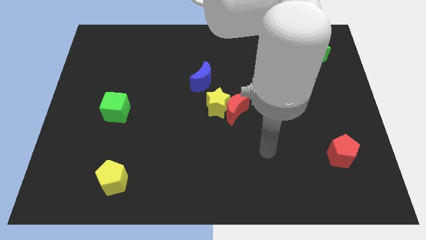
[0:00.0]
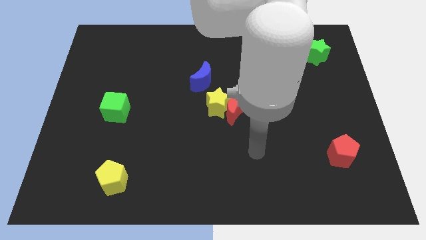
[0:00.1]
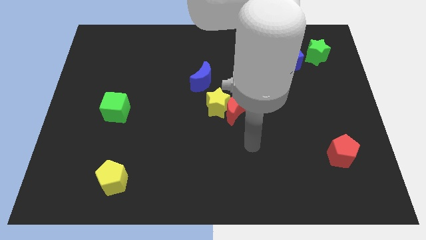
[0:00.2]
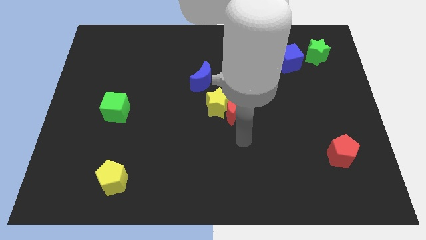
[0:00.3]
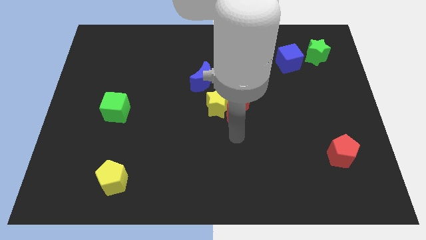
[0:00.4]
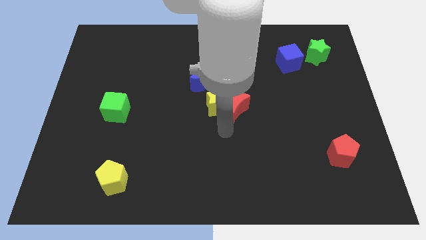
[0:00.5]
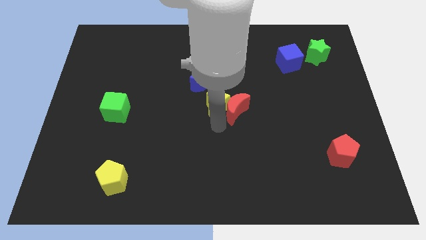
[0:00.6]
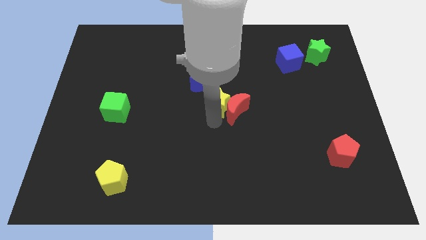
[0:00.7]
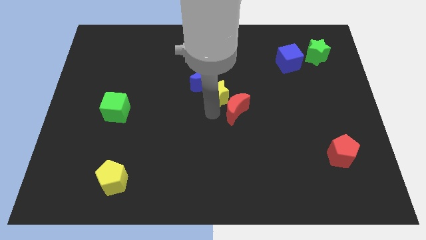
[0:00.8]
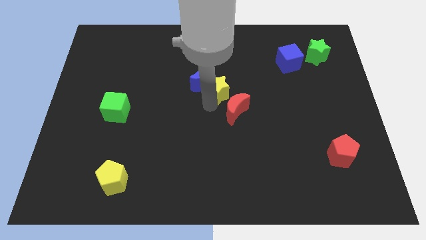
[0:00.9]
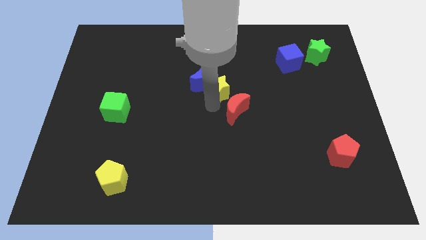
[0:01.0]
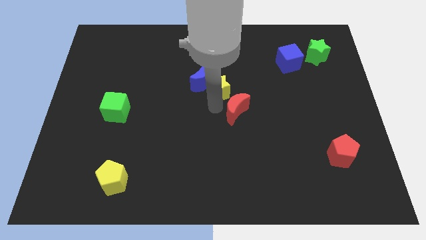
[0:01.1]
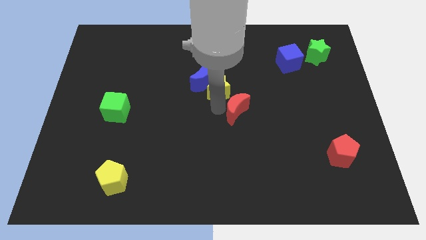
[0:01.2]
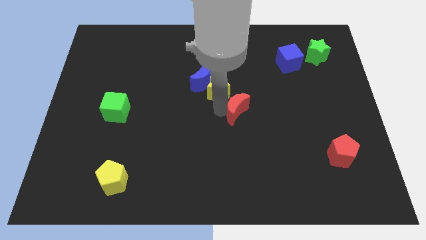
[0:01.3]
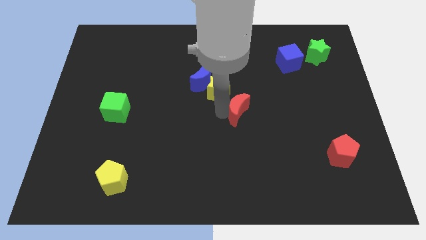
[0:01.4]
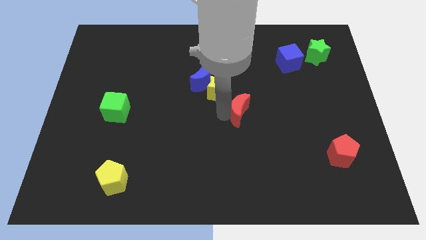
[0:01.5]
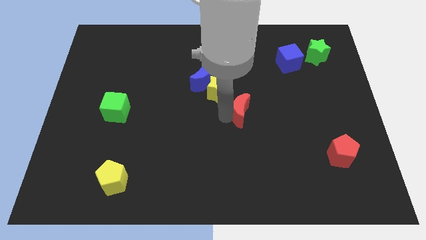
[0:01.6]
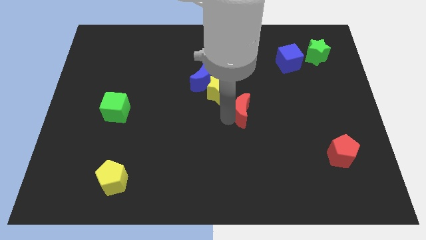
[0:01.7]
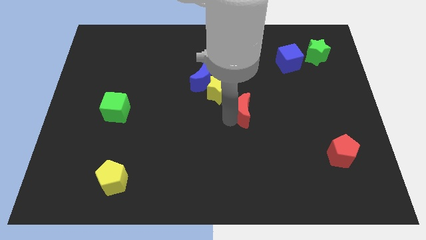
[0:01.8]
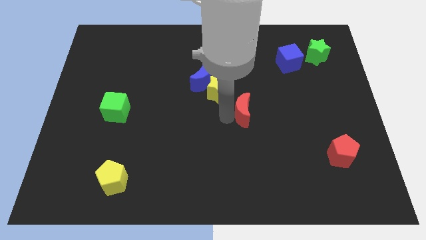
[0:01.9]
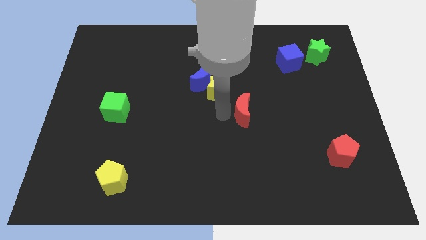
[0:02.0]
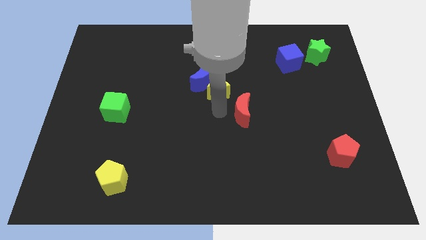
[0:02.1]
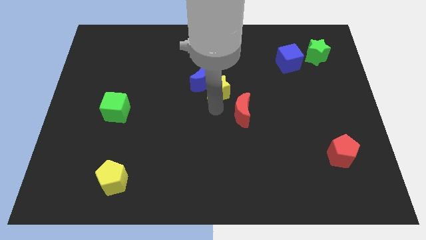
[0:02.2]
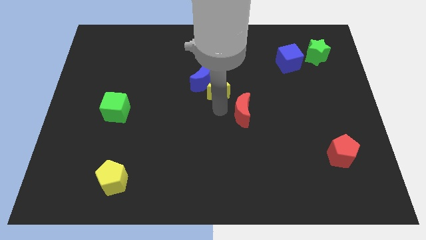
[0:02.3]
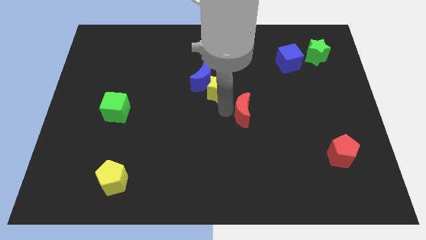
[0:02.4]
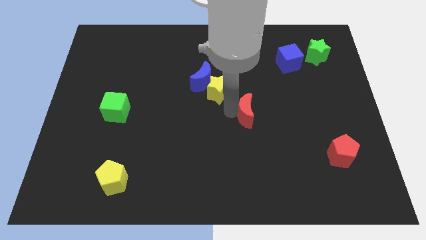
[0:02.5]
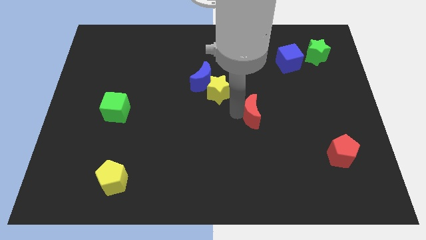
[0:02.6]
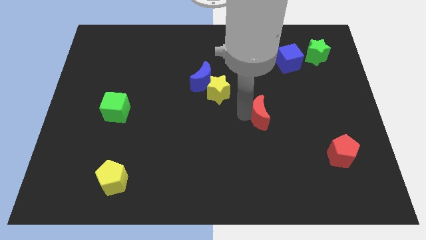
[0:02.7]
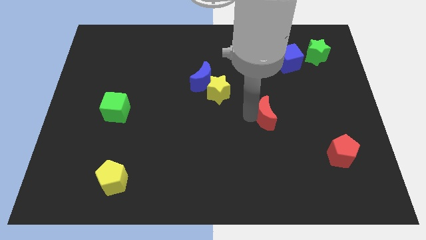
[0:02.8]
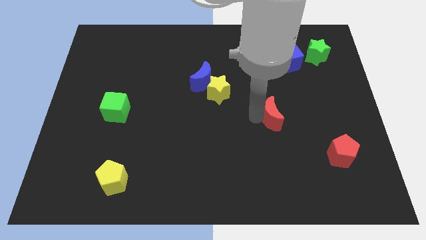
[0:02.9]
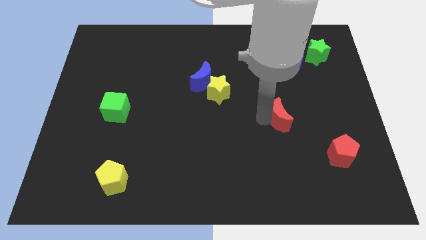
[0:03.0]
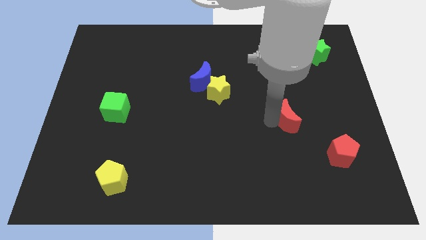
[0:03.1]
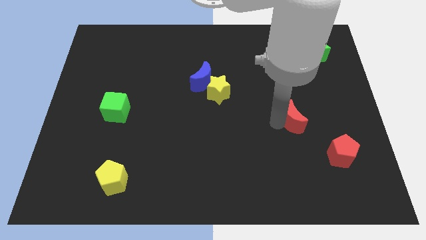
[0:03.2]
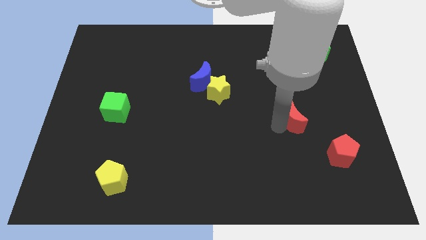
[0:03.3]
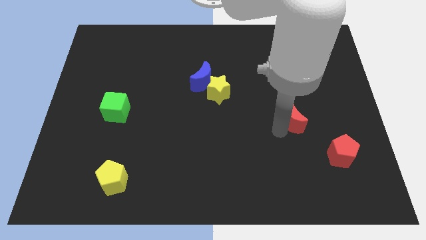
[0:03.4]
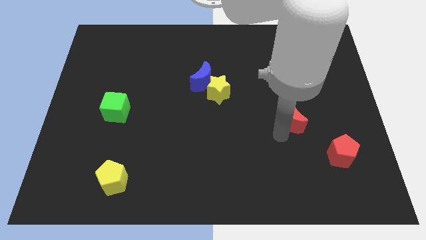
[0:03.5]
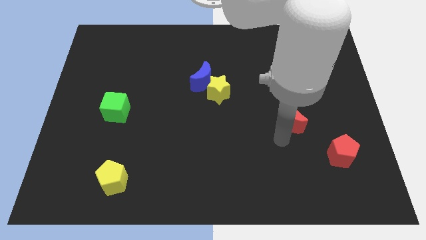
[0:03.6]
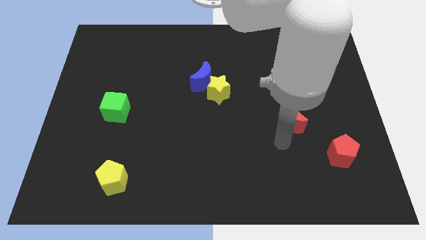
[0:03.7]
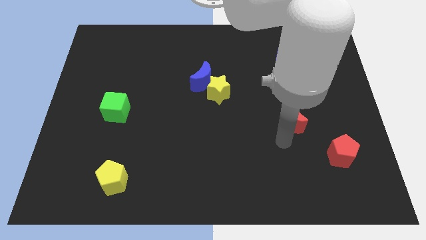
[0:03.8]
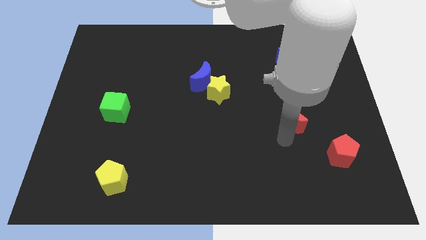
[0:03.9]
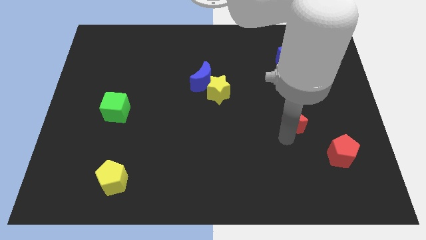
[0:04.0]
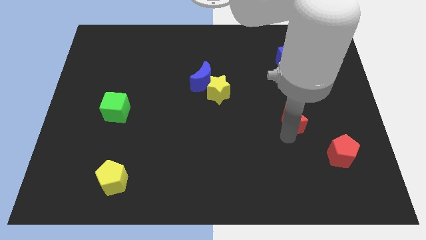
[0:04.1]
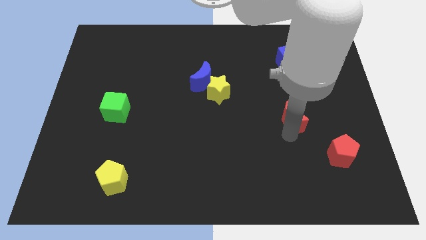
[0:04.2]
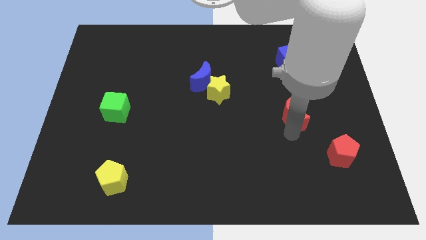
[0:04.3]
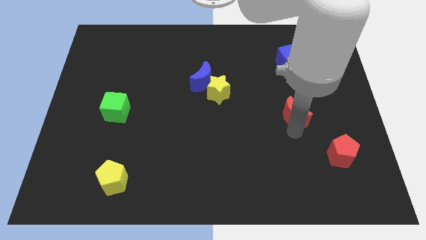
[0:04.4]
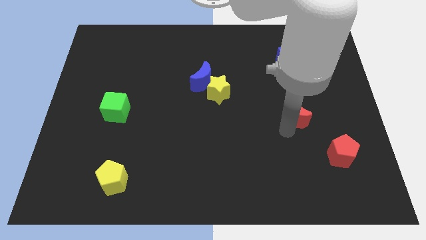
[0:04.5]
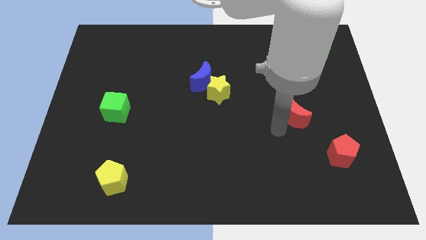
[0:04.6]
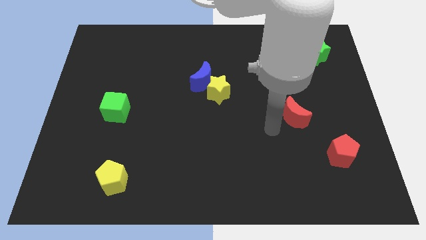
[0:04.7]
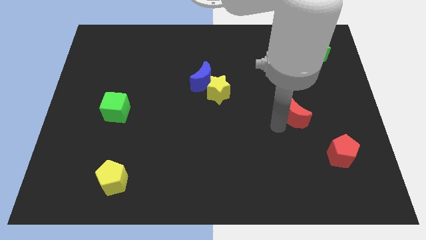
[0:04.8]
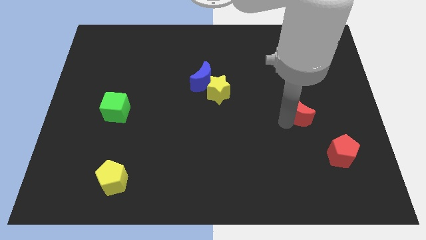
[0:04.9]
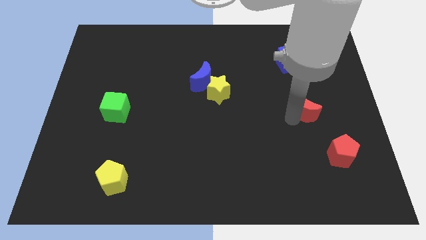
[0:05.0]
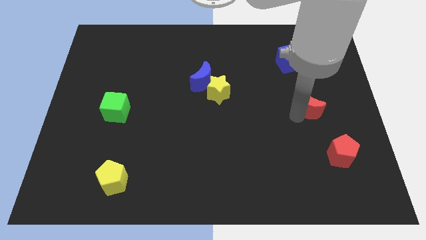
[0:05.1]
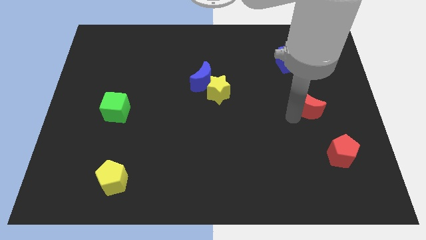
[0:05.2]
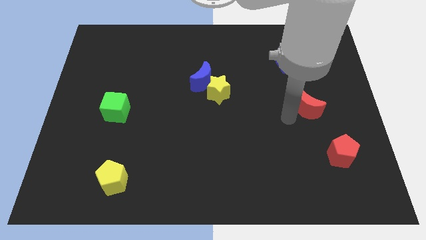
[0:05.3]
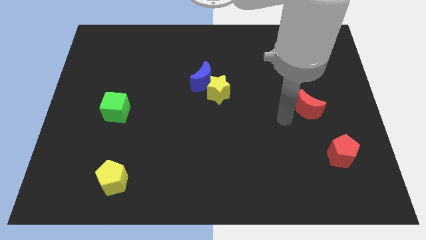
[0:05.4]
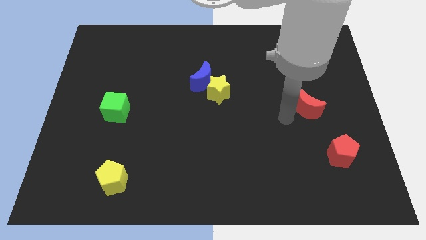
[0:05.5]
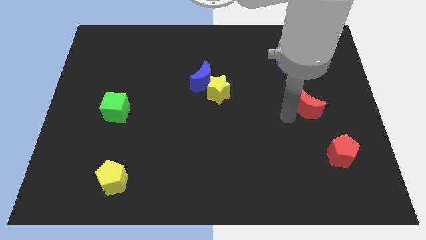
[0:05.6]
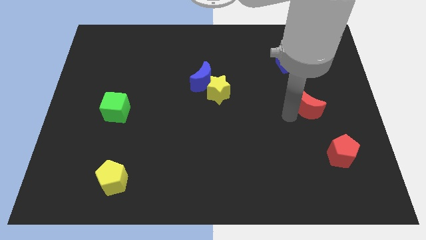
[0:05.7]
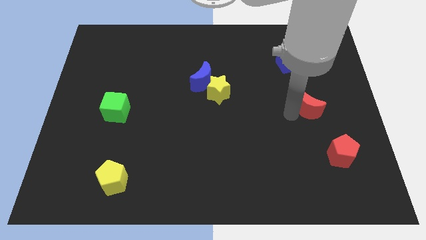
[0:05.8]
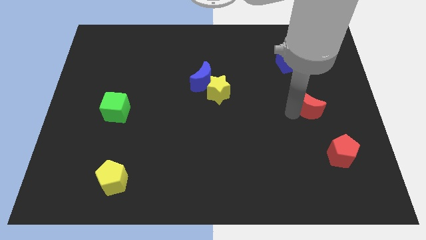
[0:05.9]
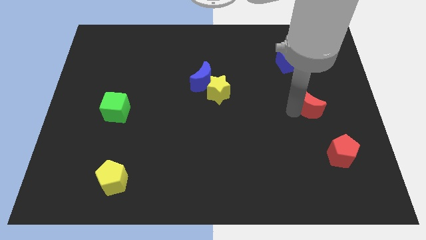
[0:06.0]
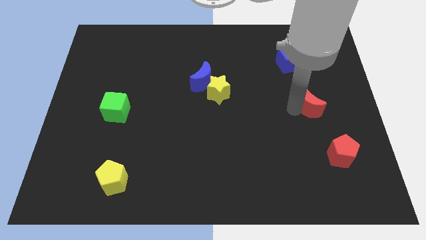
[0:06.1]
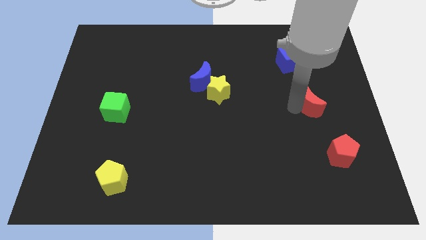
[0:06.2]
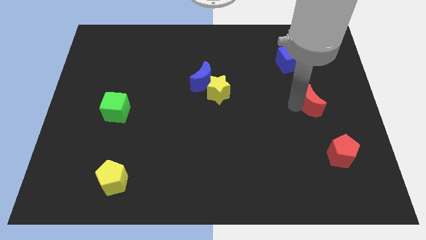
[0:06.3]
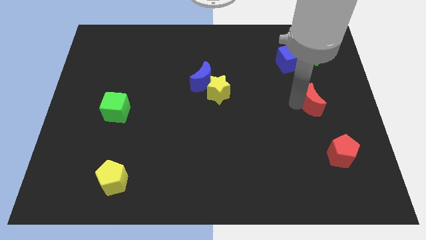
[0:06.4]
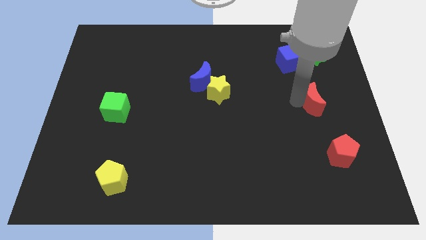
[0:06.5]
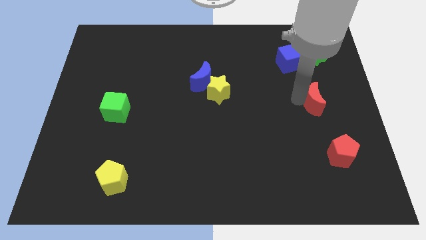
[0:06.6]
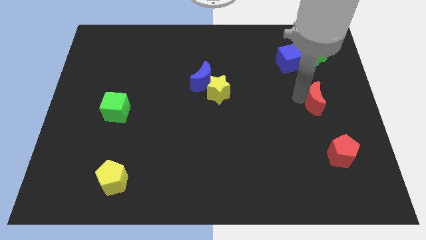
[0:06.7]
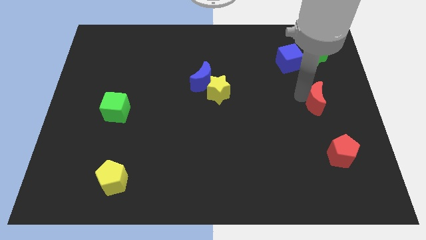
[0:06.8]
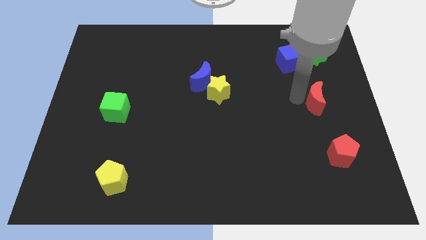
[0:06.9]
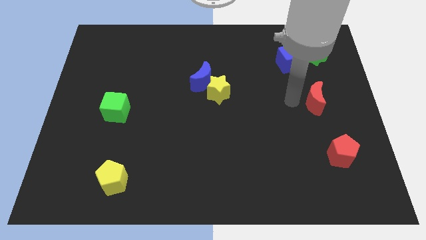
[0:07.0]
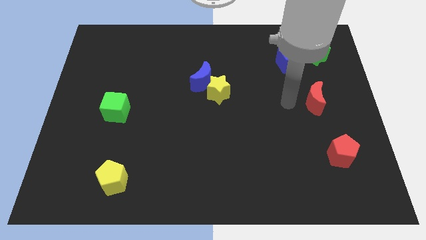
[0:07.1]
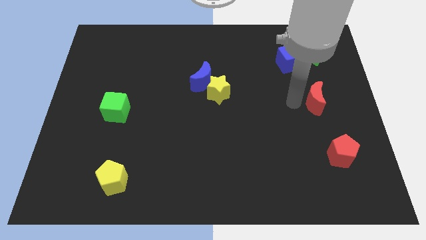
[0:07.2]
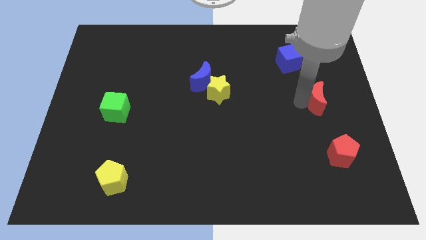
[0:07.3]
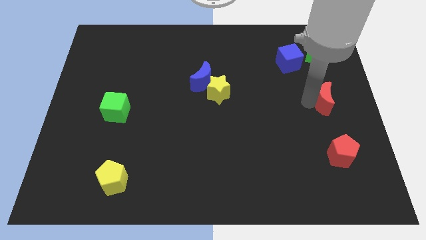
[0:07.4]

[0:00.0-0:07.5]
move the red moon to the right side
